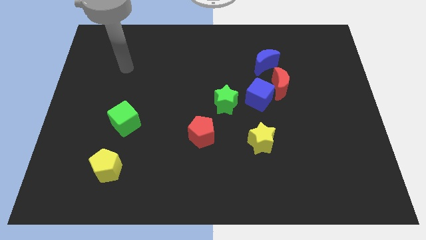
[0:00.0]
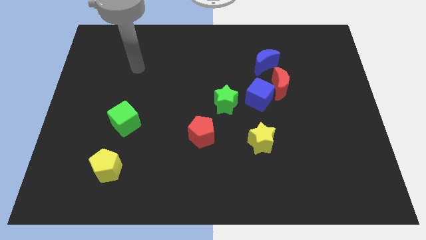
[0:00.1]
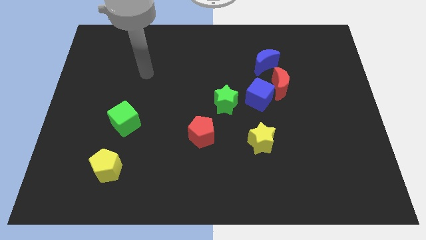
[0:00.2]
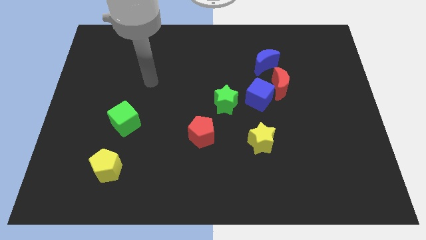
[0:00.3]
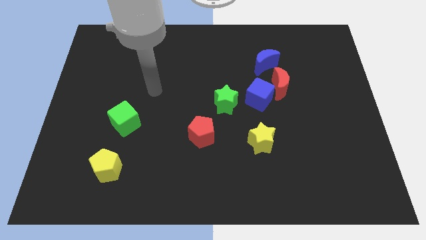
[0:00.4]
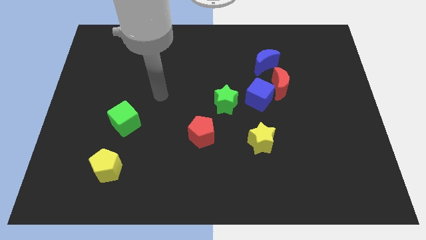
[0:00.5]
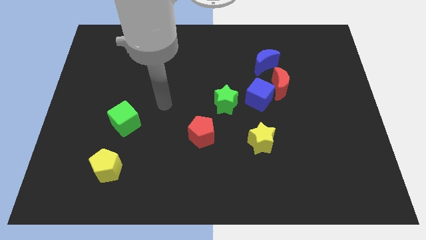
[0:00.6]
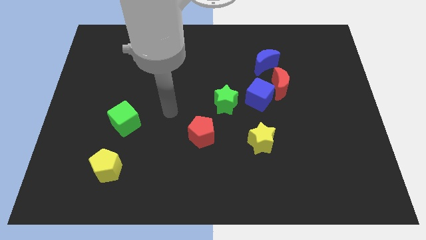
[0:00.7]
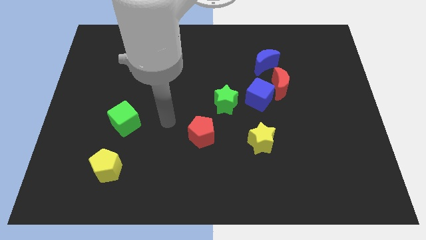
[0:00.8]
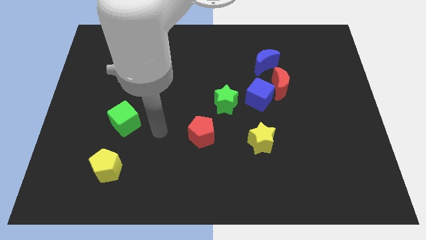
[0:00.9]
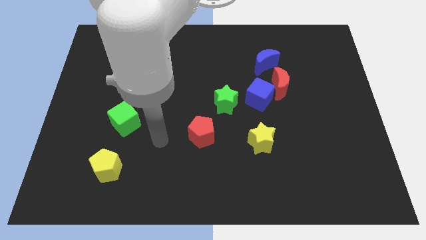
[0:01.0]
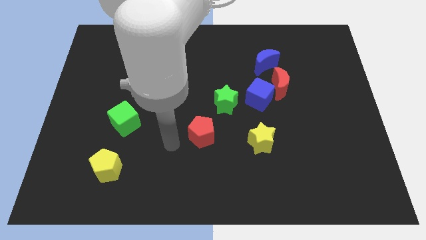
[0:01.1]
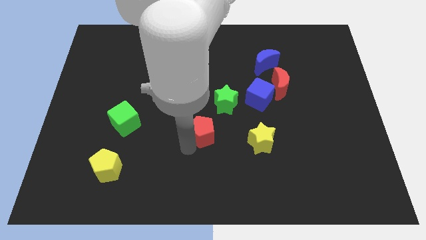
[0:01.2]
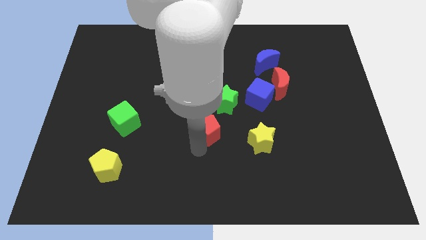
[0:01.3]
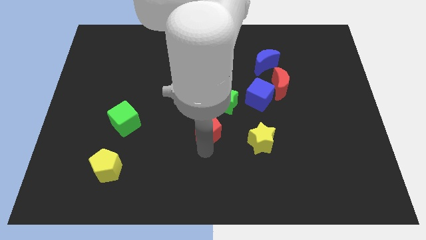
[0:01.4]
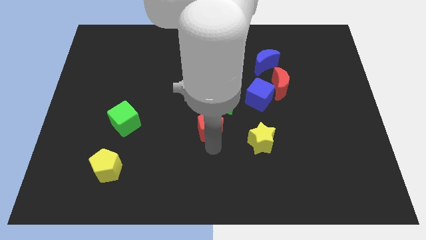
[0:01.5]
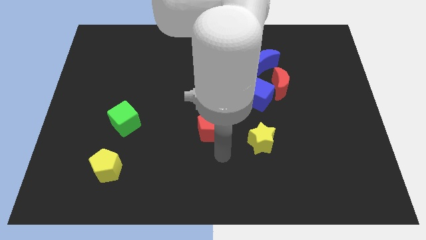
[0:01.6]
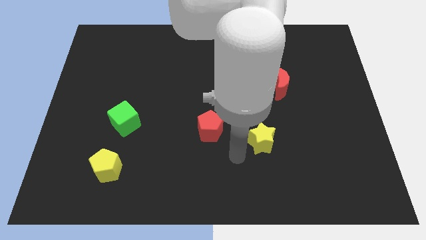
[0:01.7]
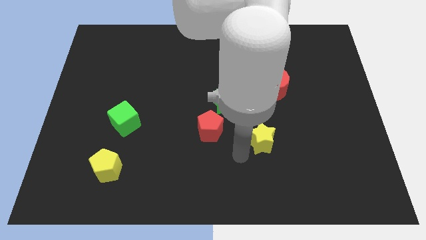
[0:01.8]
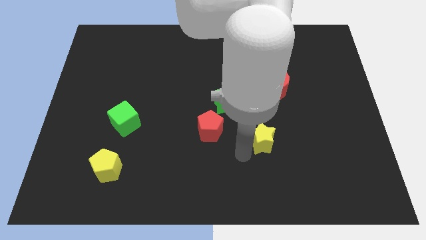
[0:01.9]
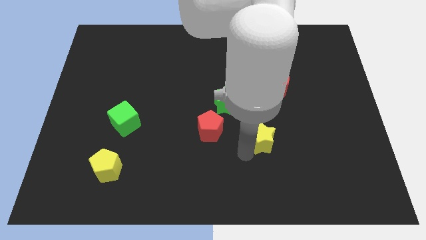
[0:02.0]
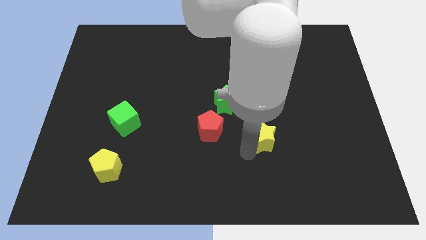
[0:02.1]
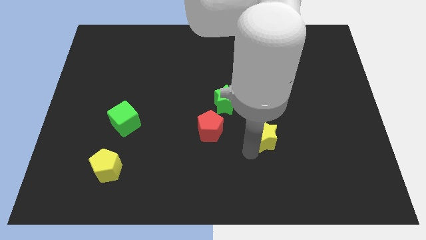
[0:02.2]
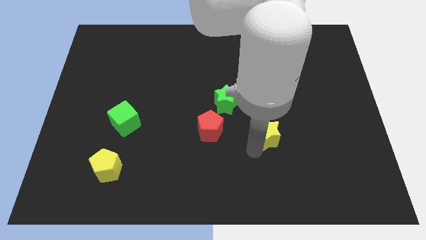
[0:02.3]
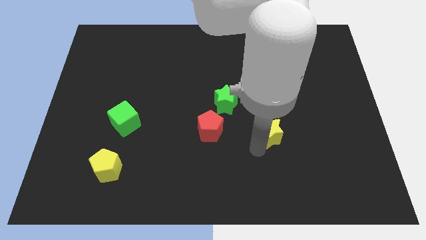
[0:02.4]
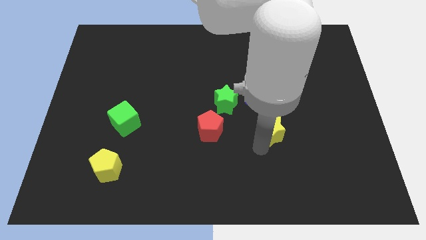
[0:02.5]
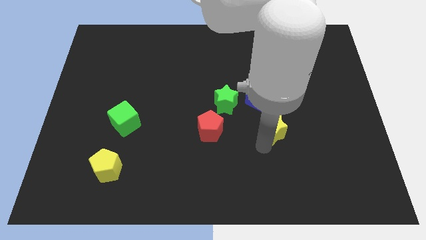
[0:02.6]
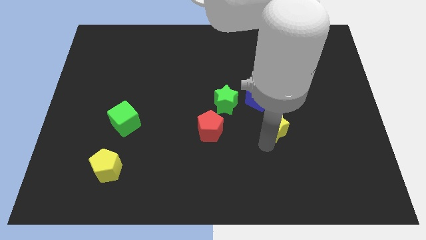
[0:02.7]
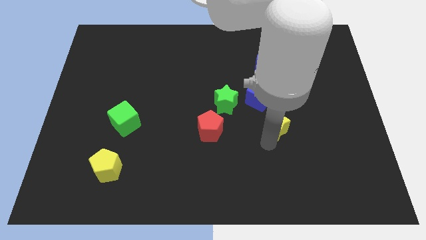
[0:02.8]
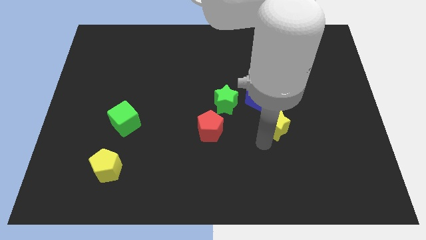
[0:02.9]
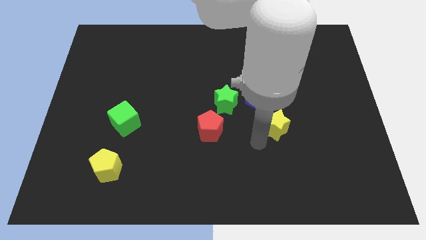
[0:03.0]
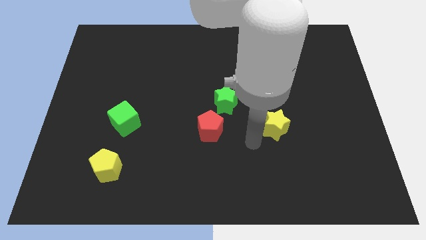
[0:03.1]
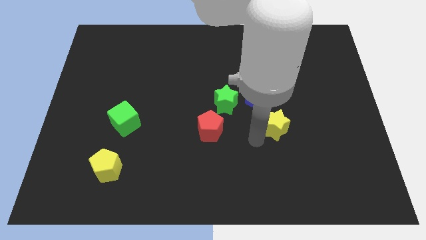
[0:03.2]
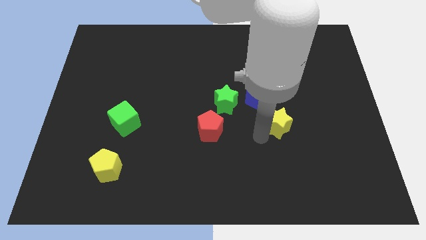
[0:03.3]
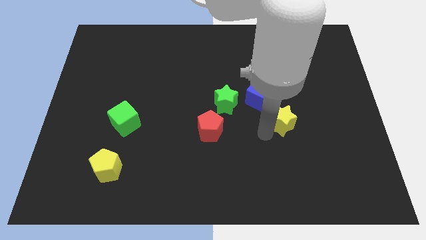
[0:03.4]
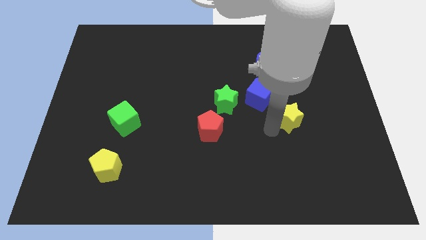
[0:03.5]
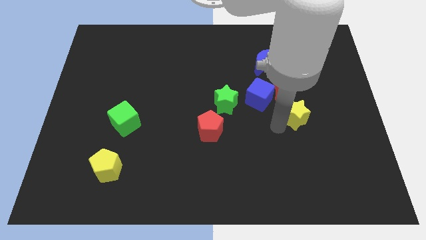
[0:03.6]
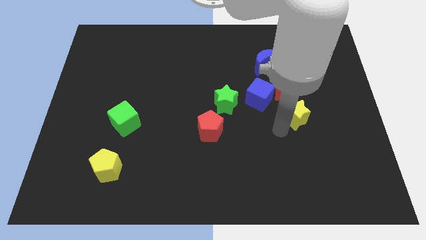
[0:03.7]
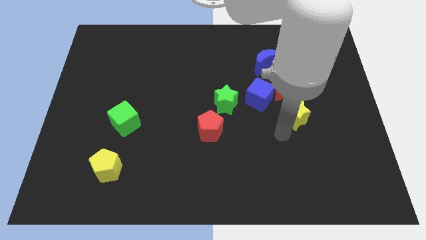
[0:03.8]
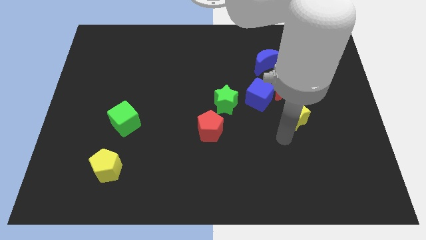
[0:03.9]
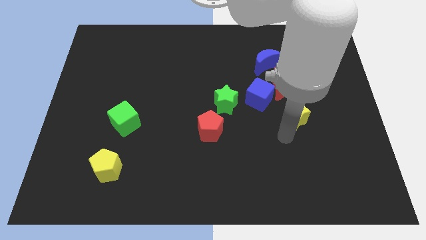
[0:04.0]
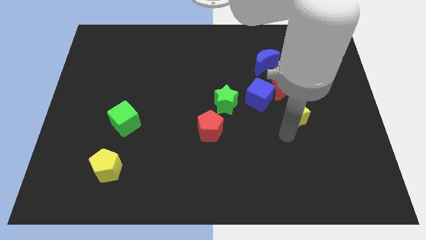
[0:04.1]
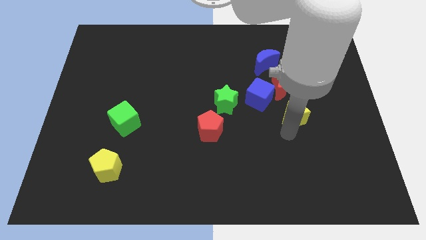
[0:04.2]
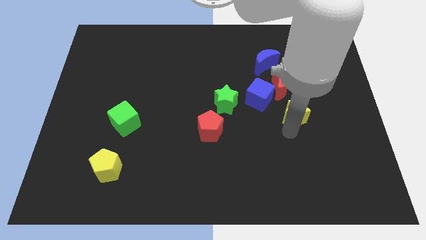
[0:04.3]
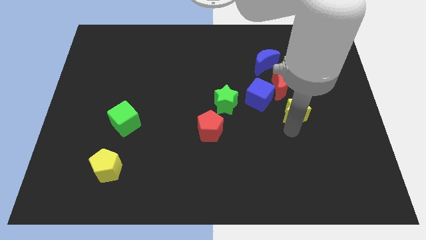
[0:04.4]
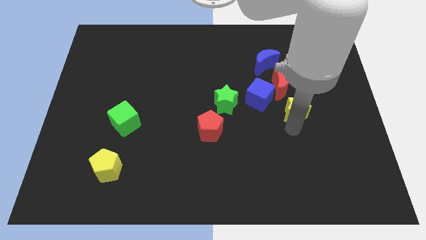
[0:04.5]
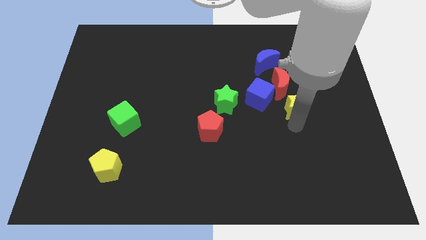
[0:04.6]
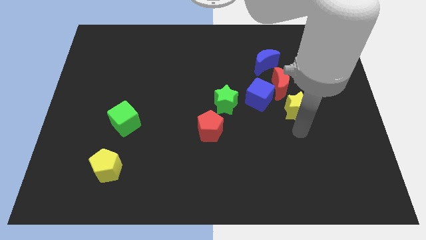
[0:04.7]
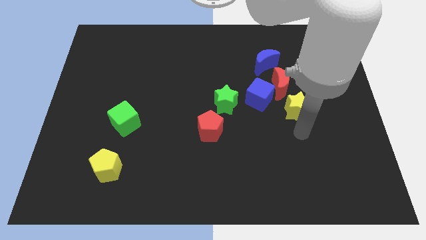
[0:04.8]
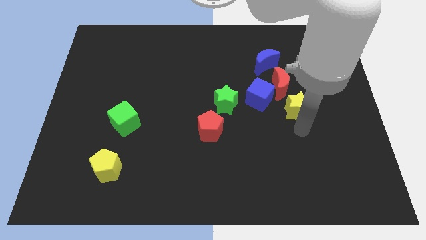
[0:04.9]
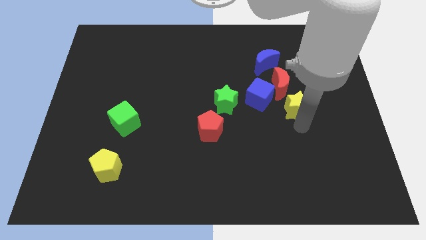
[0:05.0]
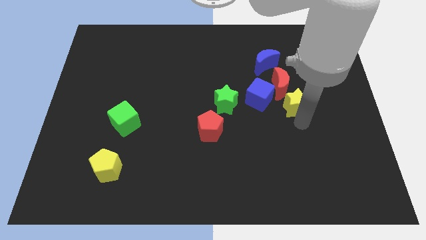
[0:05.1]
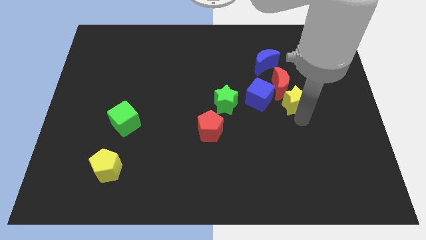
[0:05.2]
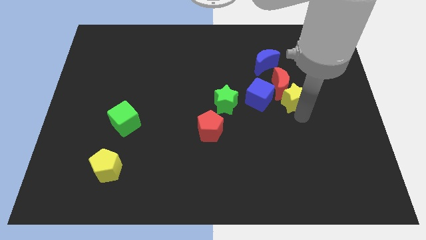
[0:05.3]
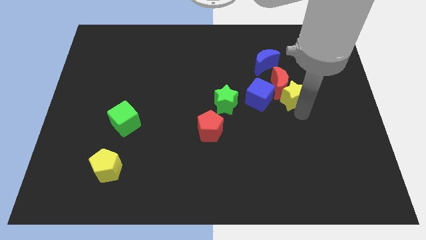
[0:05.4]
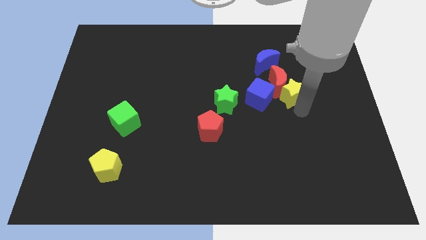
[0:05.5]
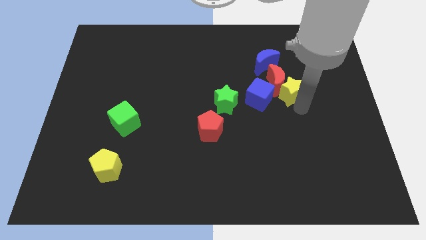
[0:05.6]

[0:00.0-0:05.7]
move the yellow star to the bottom right side of the blue moon
